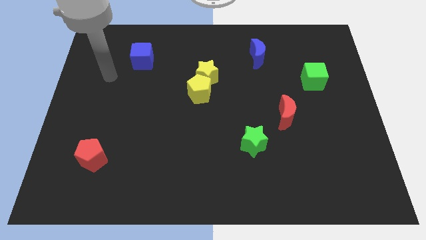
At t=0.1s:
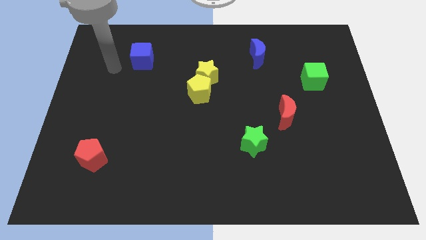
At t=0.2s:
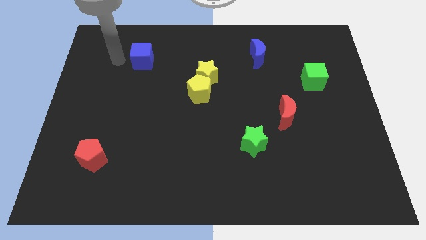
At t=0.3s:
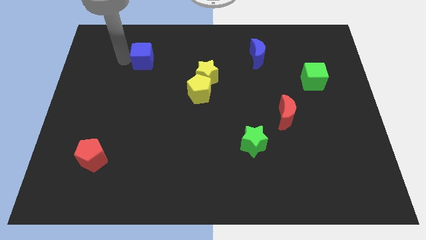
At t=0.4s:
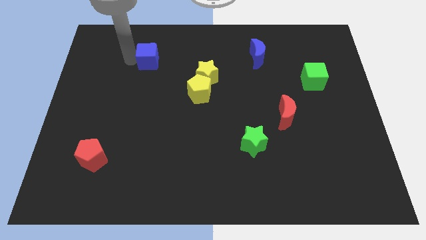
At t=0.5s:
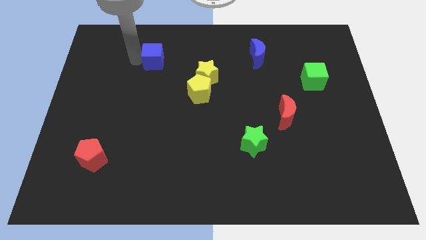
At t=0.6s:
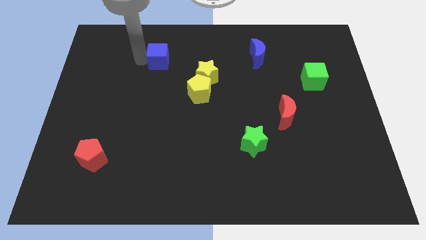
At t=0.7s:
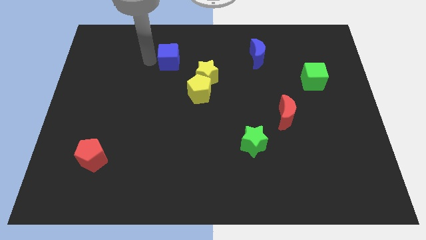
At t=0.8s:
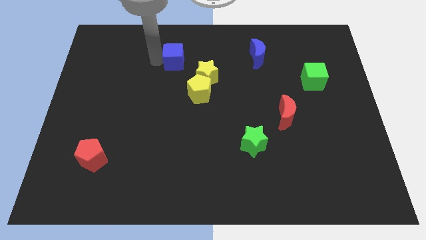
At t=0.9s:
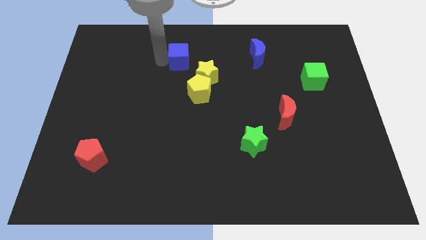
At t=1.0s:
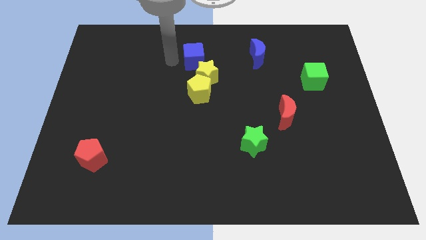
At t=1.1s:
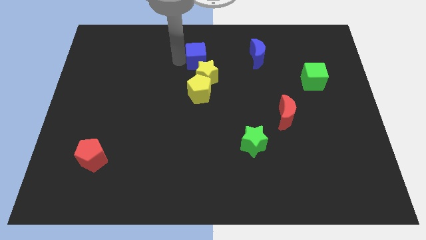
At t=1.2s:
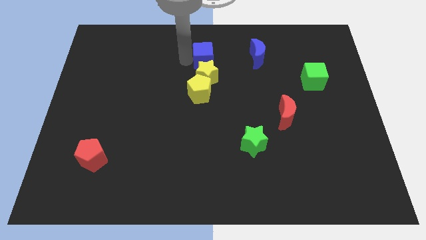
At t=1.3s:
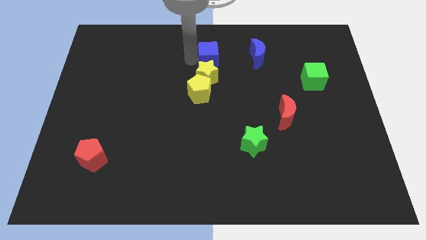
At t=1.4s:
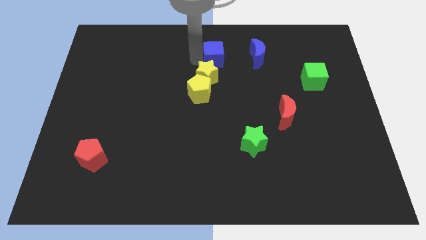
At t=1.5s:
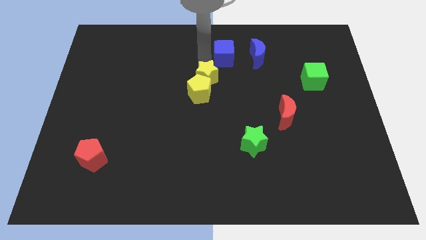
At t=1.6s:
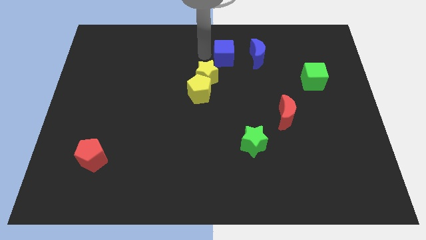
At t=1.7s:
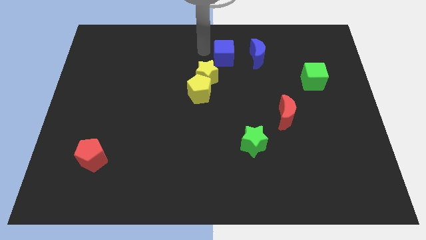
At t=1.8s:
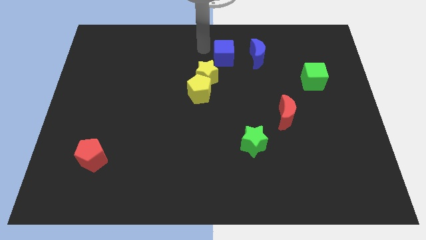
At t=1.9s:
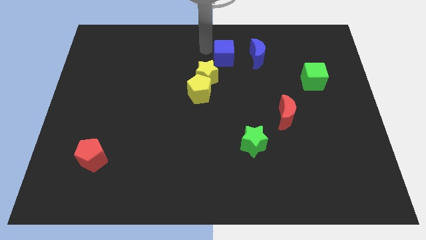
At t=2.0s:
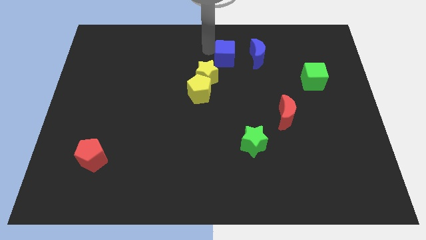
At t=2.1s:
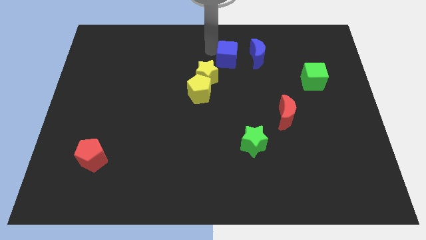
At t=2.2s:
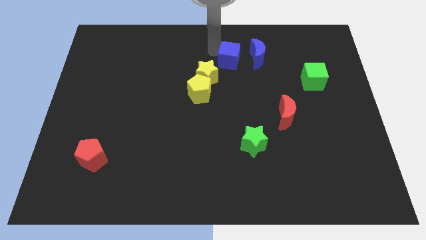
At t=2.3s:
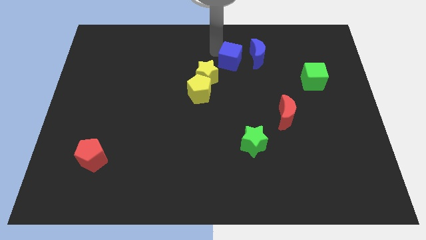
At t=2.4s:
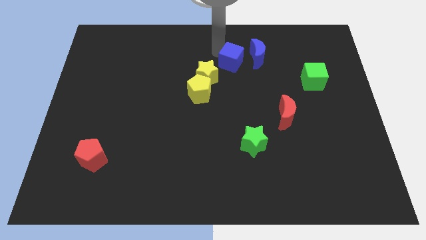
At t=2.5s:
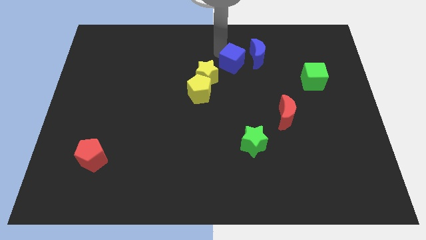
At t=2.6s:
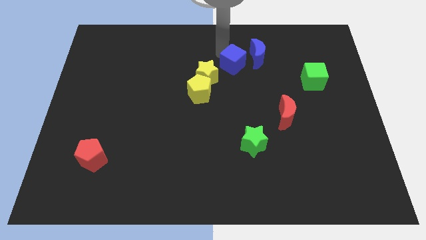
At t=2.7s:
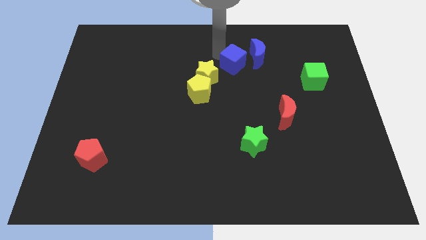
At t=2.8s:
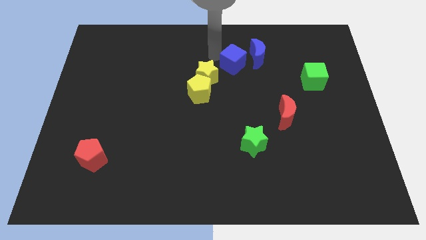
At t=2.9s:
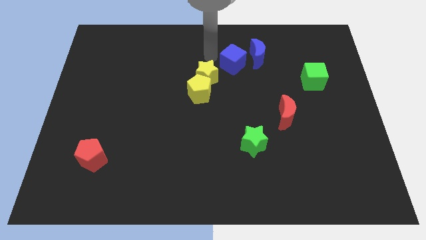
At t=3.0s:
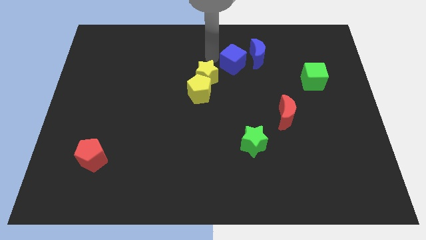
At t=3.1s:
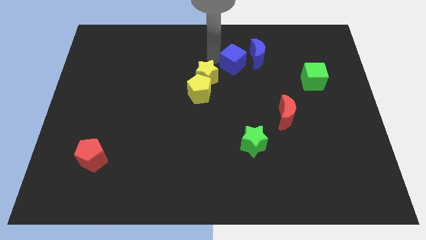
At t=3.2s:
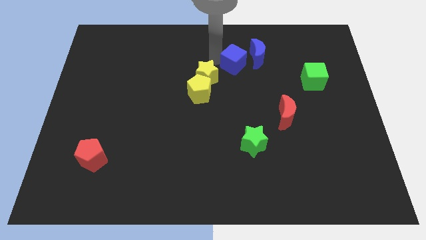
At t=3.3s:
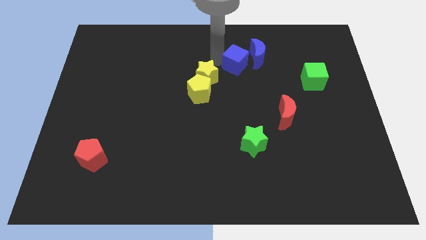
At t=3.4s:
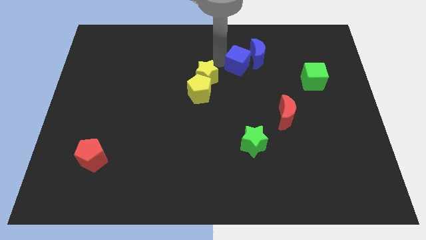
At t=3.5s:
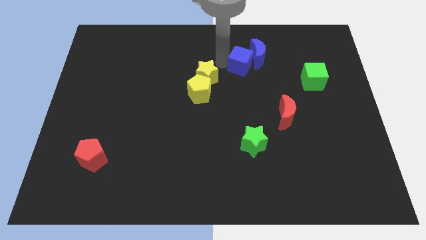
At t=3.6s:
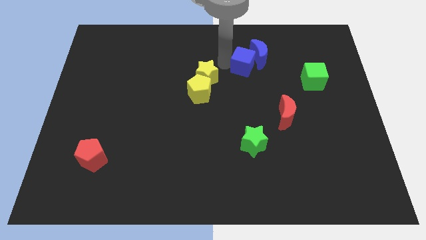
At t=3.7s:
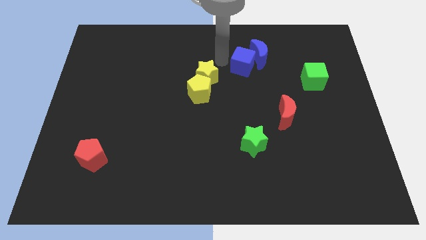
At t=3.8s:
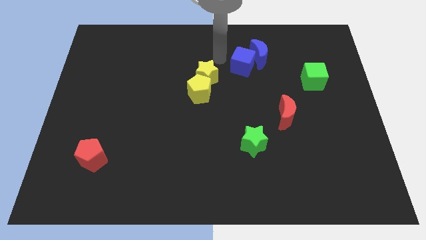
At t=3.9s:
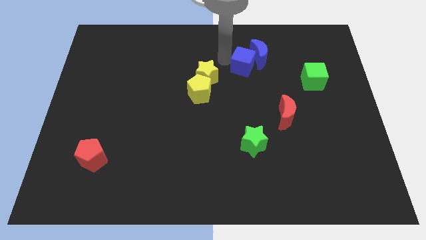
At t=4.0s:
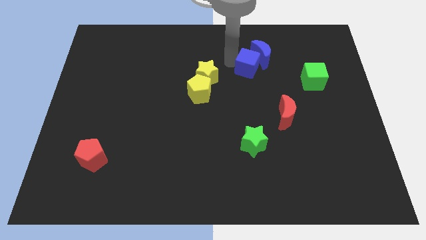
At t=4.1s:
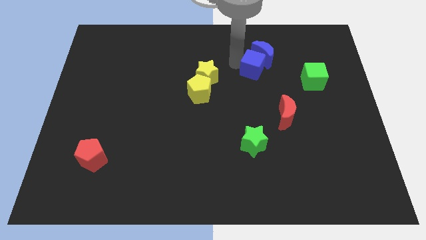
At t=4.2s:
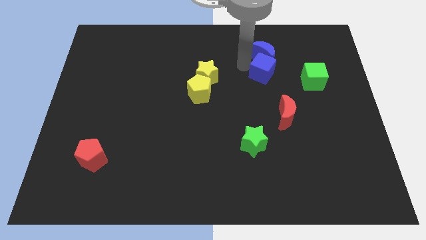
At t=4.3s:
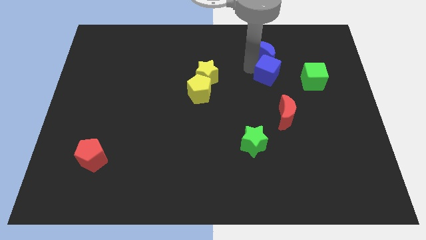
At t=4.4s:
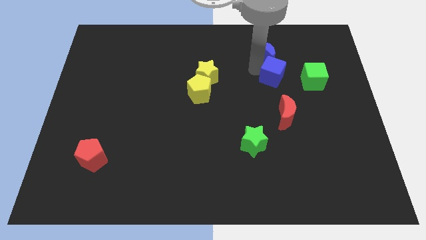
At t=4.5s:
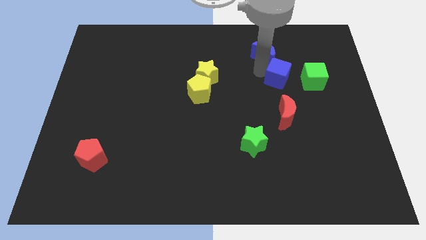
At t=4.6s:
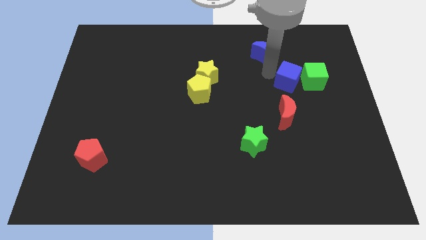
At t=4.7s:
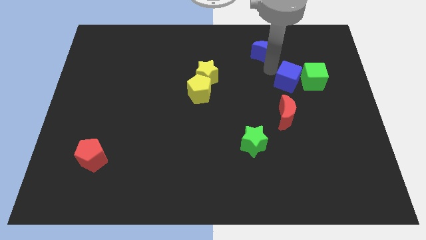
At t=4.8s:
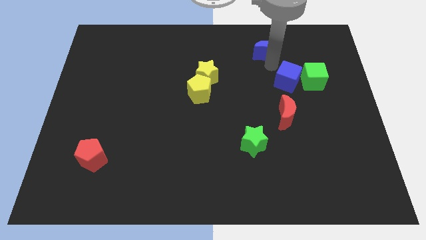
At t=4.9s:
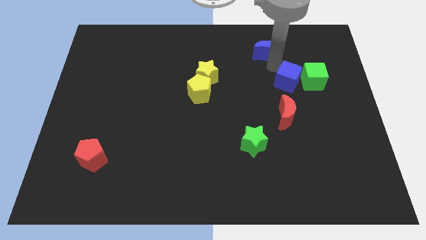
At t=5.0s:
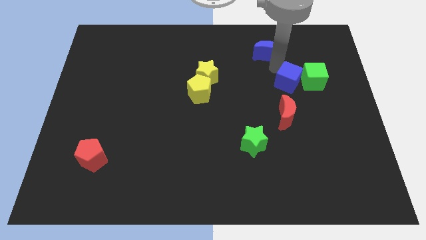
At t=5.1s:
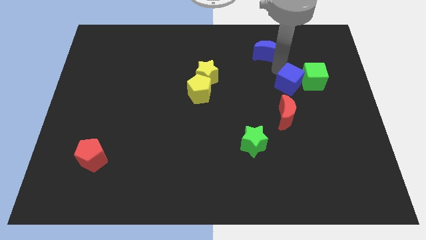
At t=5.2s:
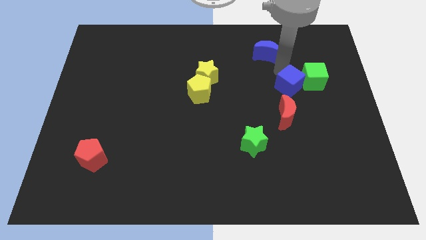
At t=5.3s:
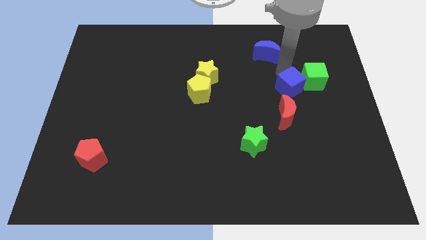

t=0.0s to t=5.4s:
push the blue cube to the top right of the red moon

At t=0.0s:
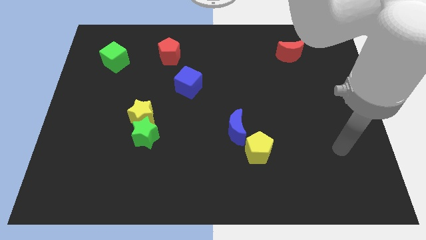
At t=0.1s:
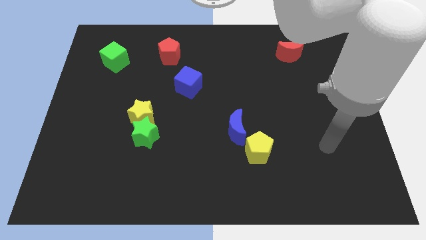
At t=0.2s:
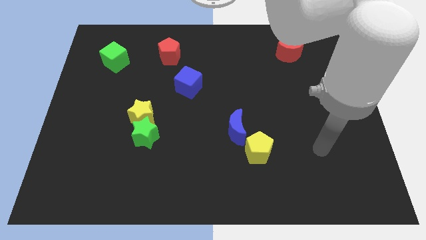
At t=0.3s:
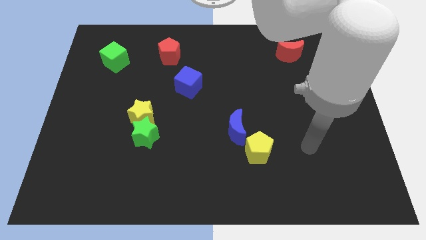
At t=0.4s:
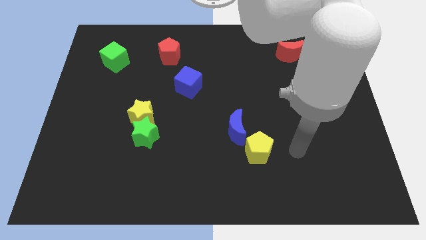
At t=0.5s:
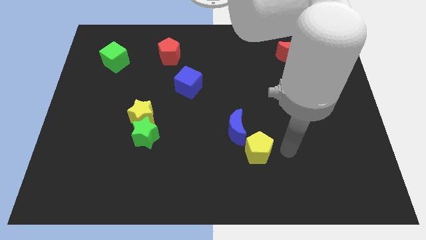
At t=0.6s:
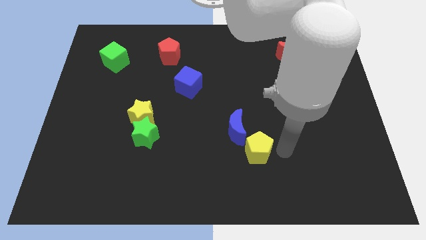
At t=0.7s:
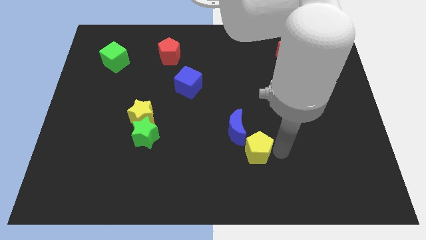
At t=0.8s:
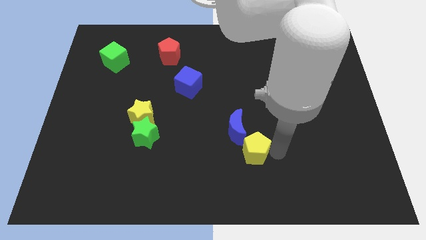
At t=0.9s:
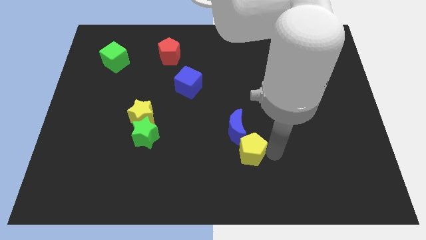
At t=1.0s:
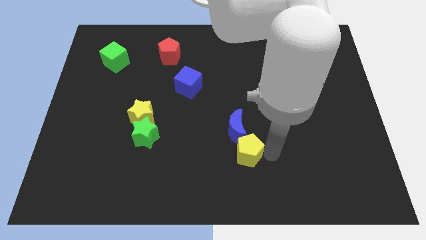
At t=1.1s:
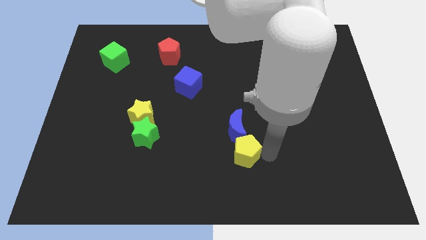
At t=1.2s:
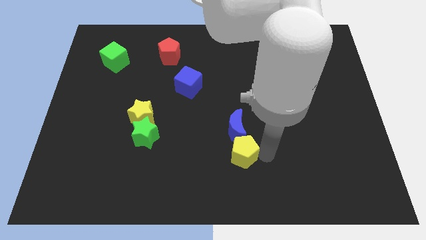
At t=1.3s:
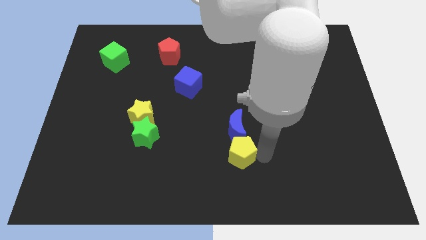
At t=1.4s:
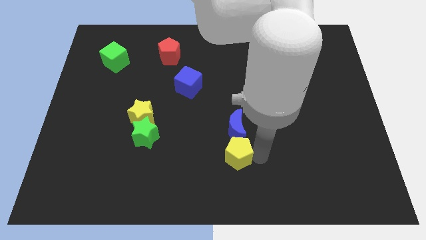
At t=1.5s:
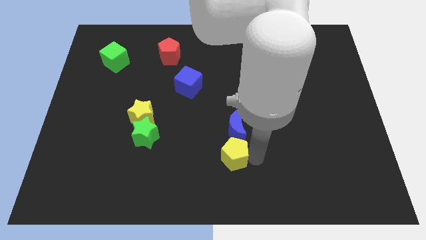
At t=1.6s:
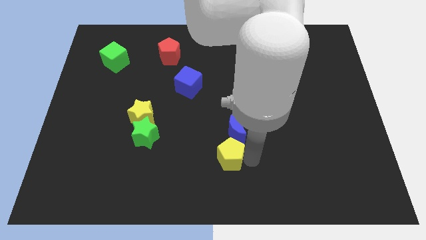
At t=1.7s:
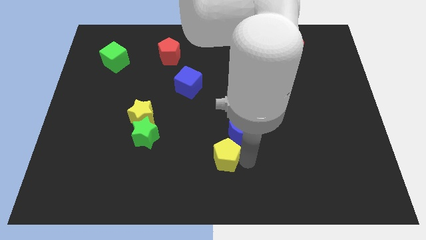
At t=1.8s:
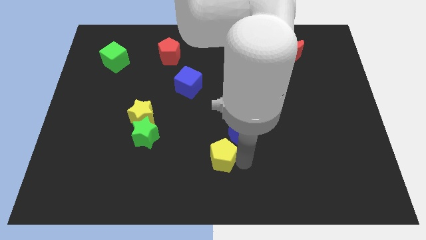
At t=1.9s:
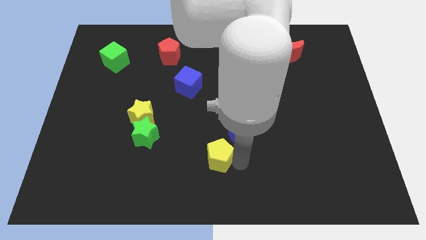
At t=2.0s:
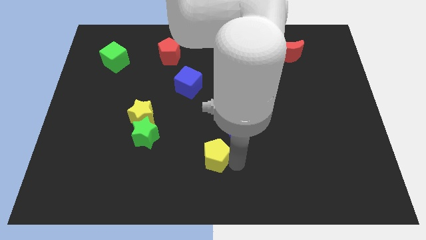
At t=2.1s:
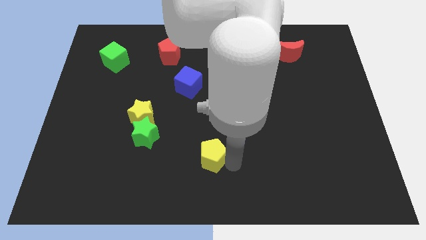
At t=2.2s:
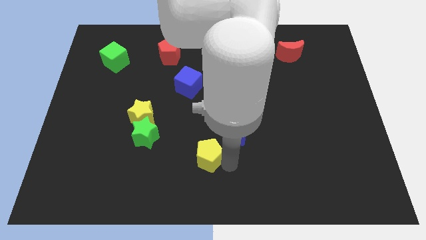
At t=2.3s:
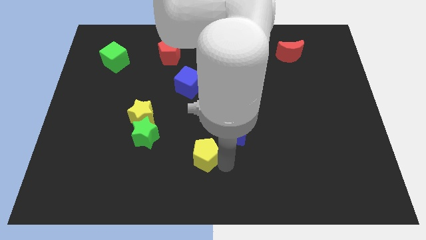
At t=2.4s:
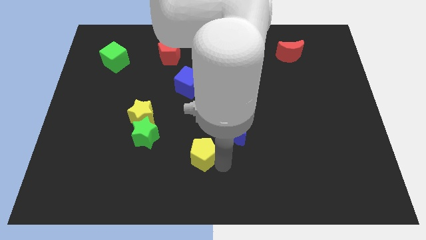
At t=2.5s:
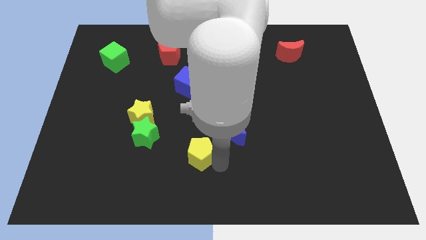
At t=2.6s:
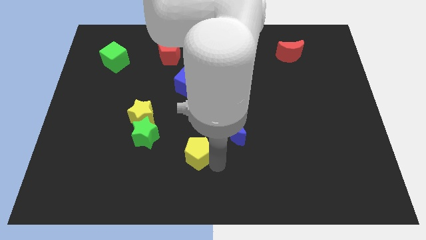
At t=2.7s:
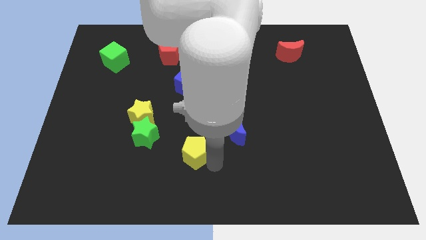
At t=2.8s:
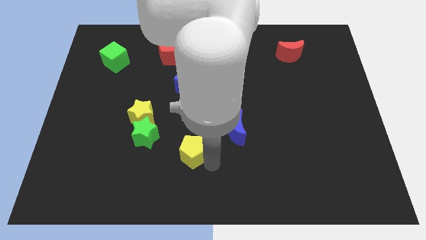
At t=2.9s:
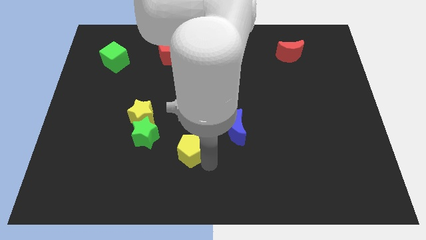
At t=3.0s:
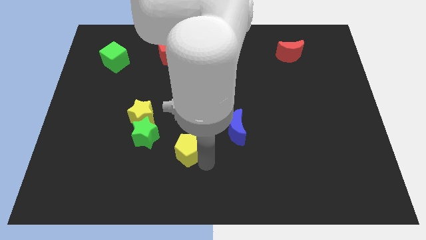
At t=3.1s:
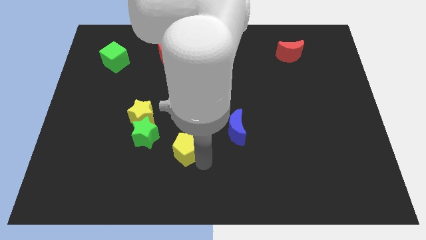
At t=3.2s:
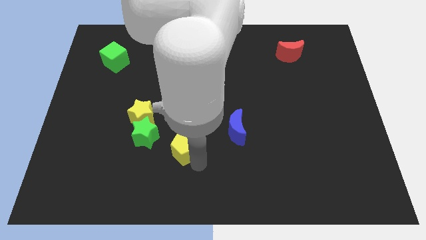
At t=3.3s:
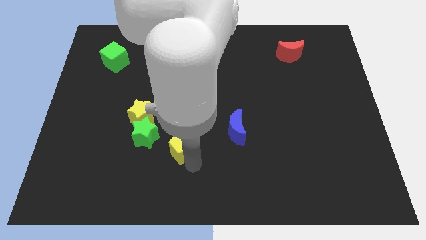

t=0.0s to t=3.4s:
move the yellow pentagon to the left of the blue moon
